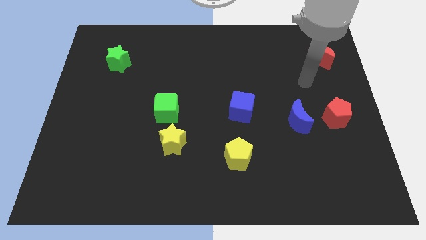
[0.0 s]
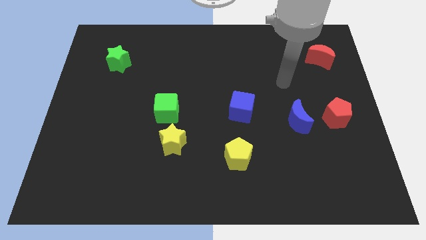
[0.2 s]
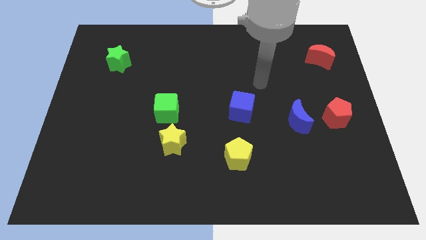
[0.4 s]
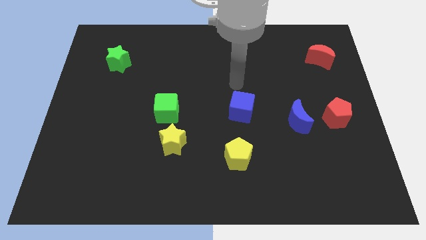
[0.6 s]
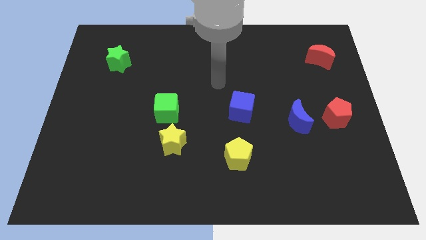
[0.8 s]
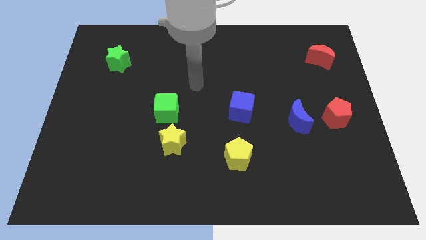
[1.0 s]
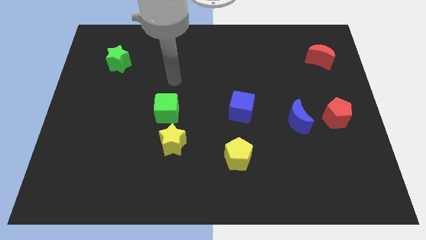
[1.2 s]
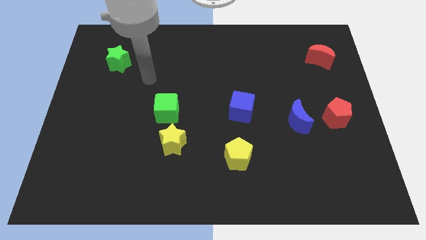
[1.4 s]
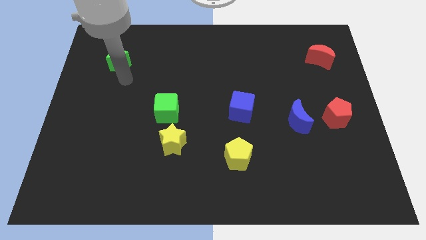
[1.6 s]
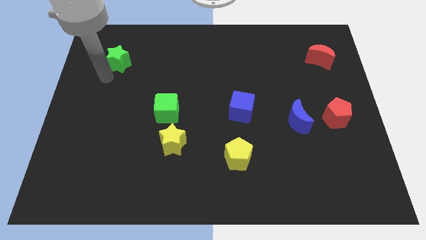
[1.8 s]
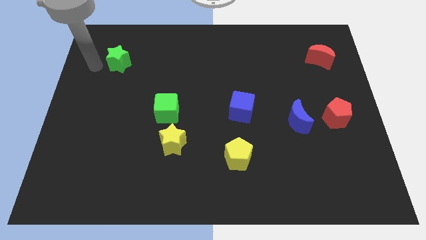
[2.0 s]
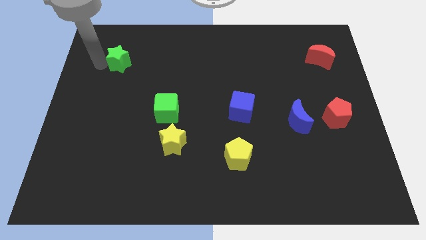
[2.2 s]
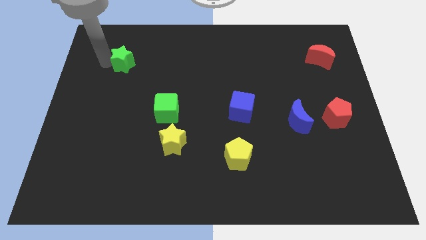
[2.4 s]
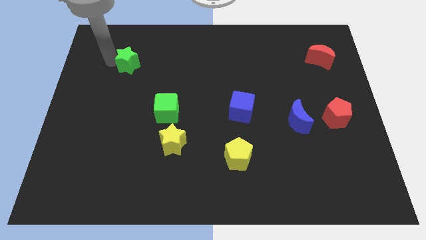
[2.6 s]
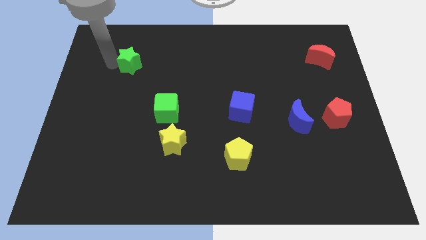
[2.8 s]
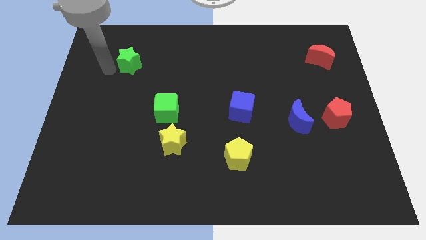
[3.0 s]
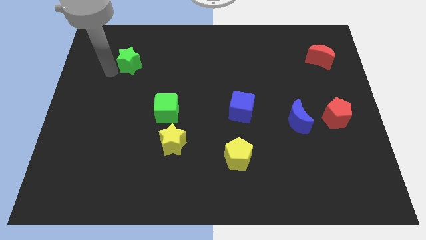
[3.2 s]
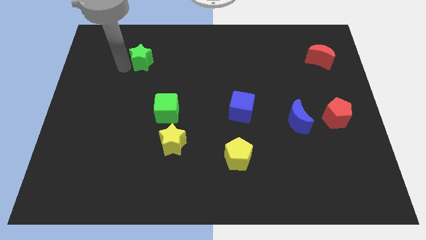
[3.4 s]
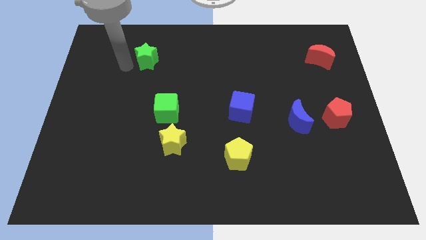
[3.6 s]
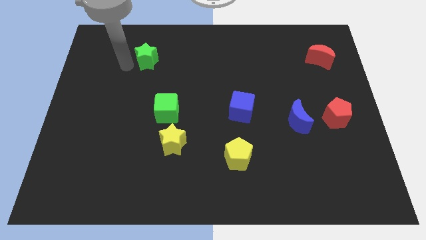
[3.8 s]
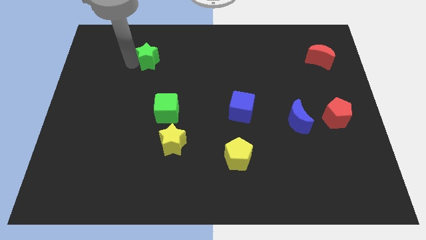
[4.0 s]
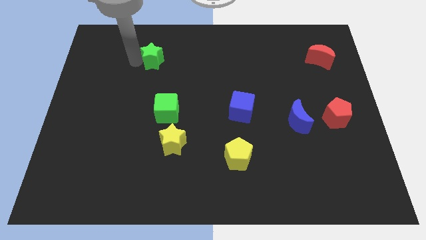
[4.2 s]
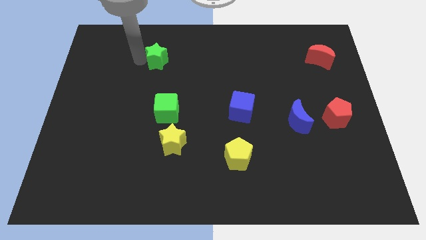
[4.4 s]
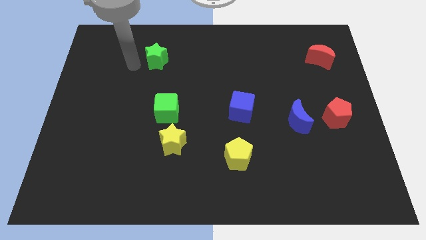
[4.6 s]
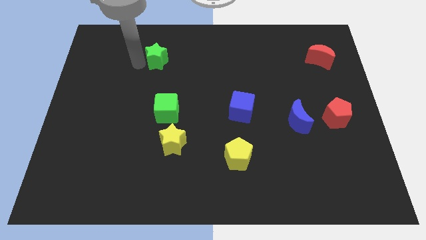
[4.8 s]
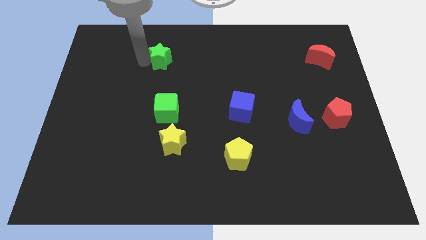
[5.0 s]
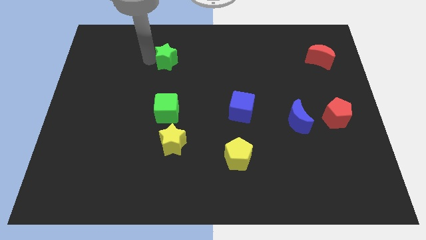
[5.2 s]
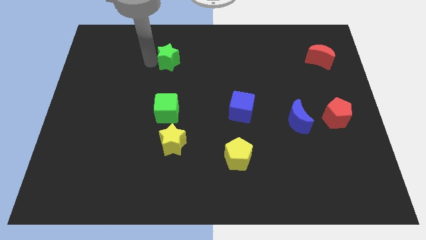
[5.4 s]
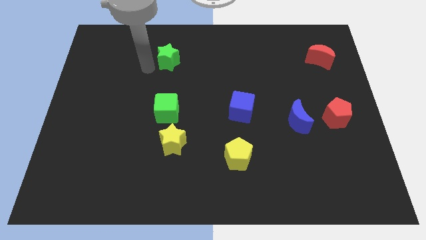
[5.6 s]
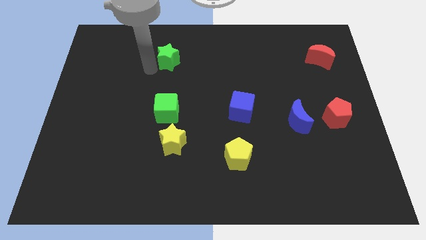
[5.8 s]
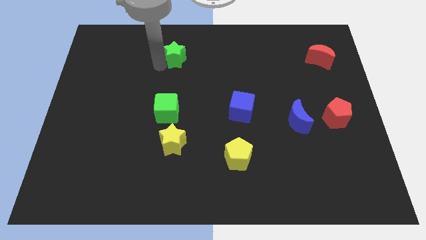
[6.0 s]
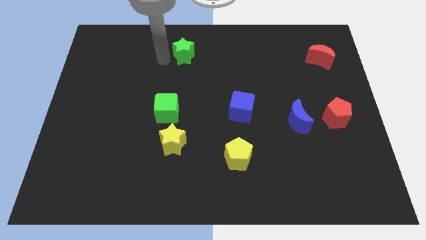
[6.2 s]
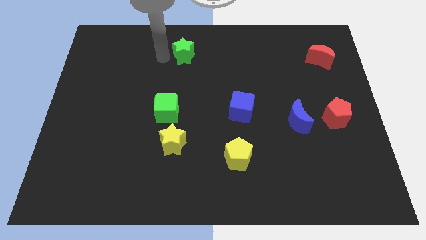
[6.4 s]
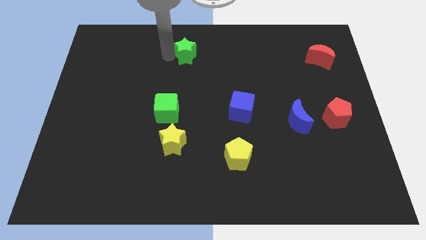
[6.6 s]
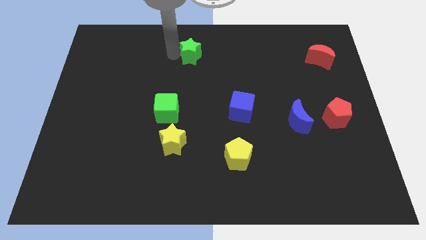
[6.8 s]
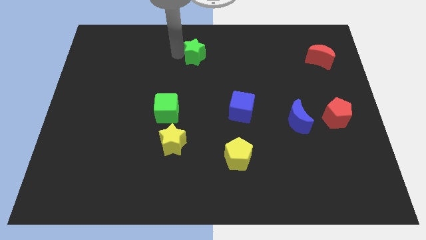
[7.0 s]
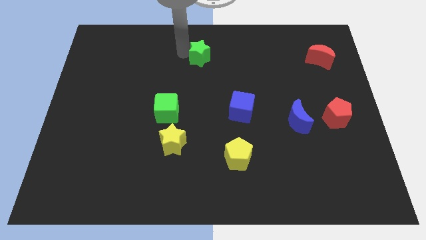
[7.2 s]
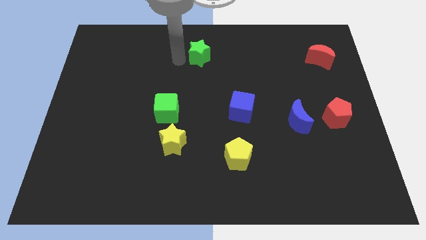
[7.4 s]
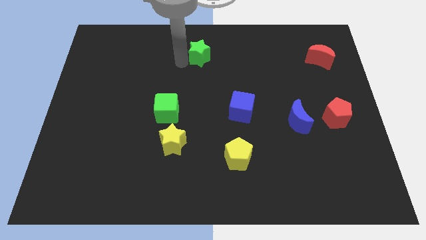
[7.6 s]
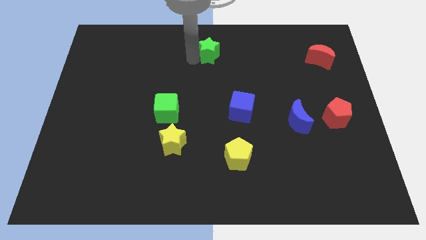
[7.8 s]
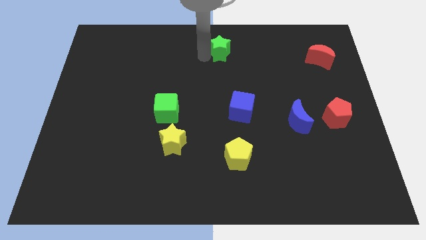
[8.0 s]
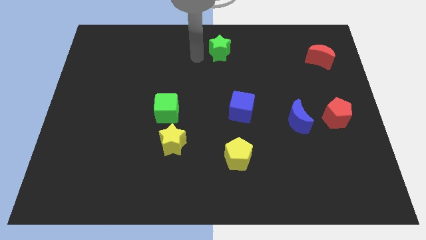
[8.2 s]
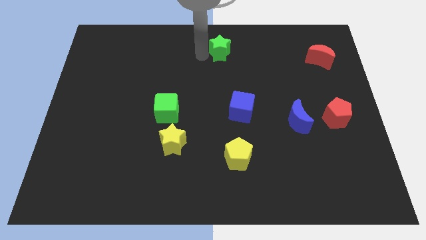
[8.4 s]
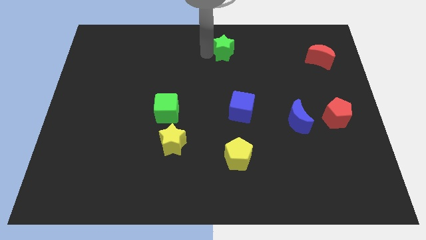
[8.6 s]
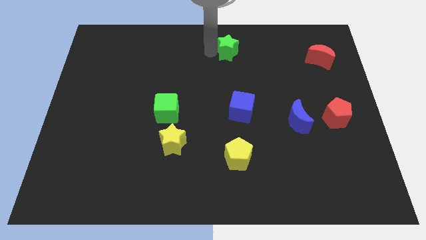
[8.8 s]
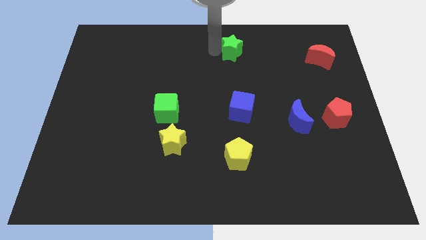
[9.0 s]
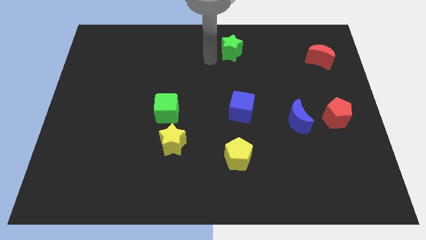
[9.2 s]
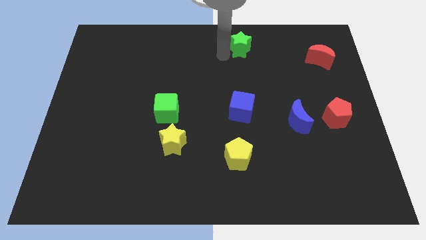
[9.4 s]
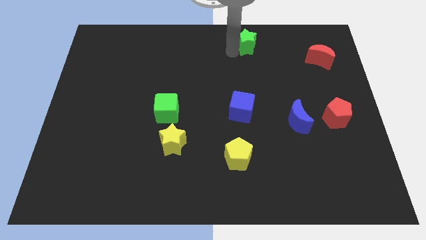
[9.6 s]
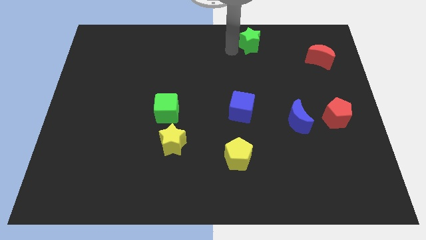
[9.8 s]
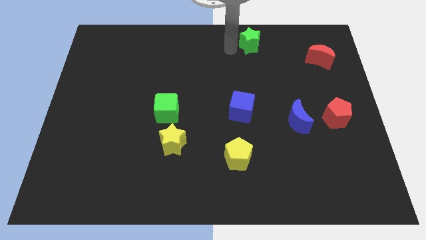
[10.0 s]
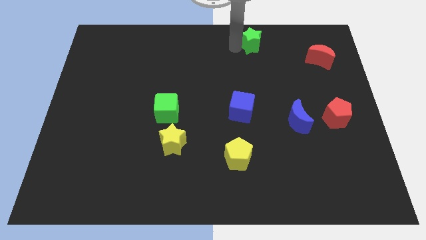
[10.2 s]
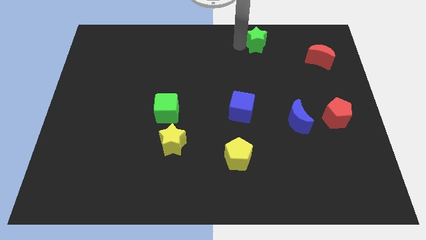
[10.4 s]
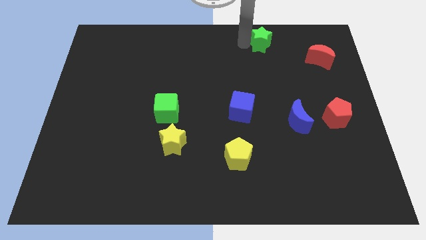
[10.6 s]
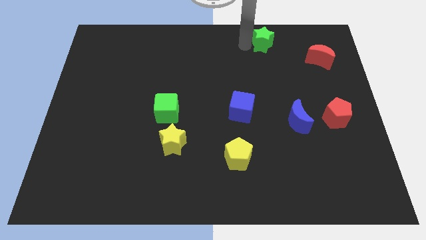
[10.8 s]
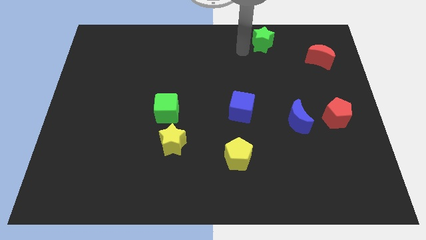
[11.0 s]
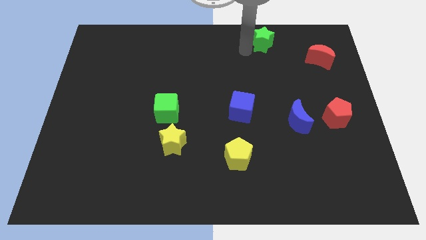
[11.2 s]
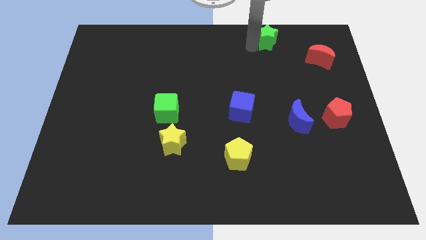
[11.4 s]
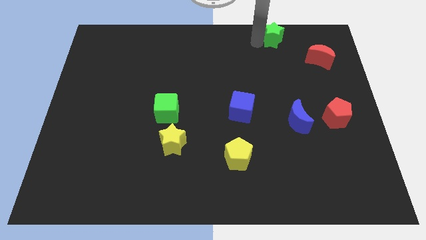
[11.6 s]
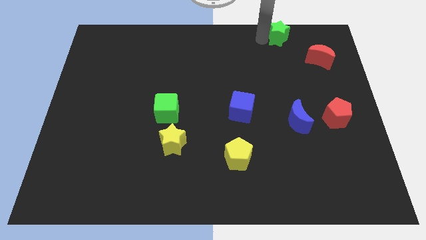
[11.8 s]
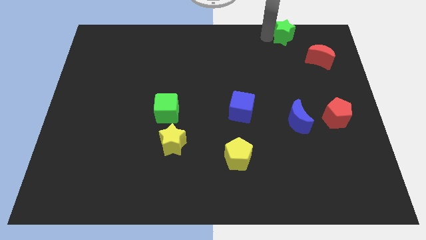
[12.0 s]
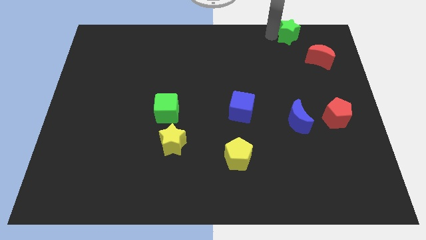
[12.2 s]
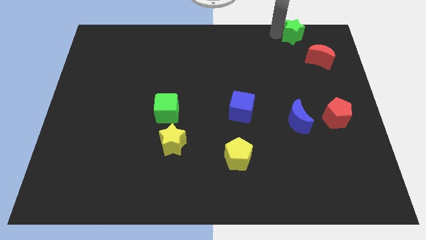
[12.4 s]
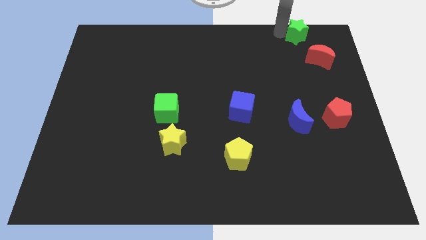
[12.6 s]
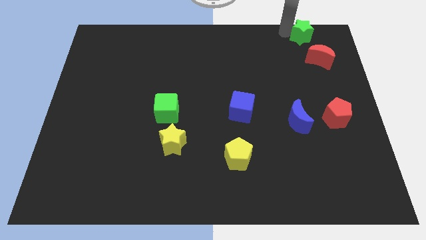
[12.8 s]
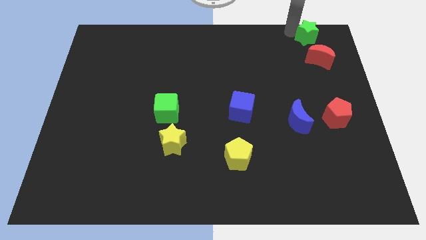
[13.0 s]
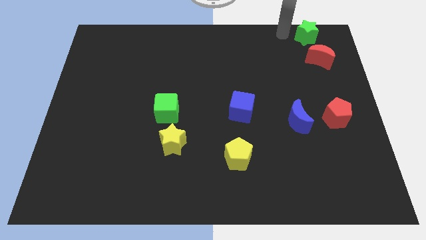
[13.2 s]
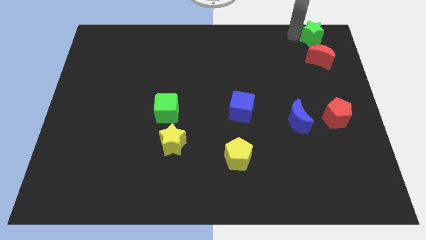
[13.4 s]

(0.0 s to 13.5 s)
put the green star to the top right corner
